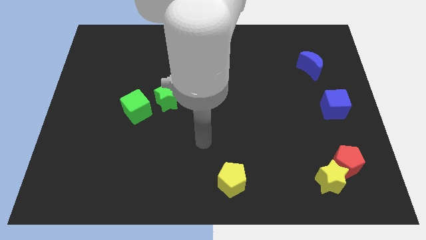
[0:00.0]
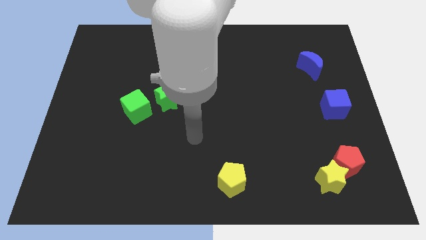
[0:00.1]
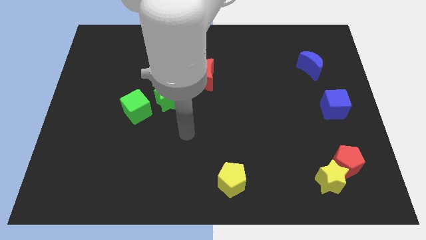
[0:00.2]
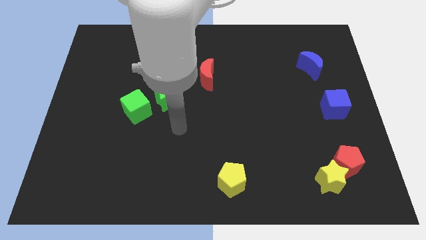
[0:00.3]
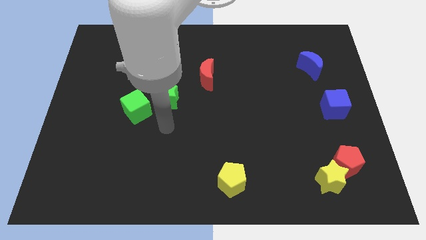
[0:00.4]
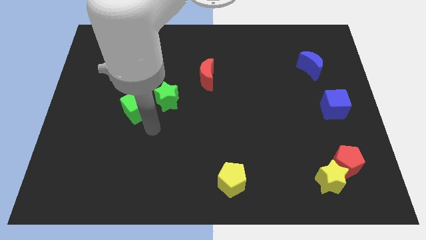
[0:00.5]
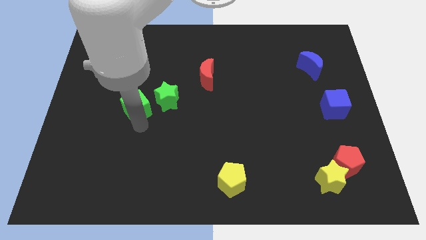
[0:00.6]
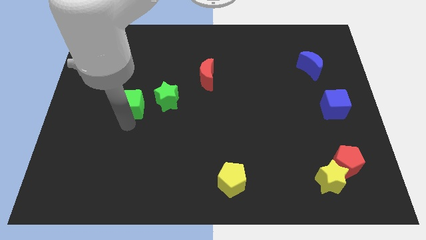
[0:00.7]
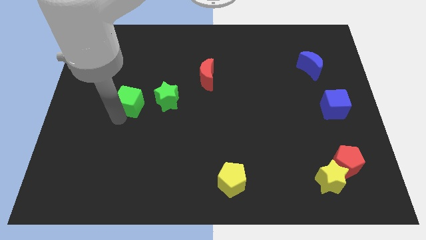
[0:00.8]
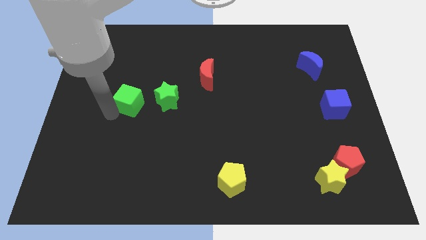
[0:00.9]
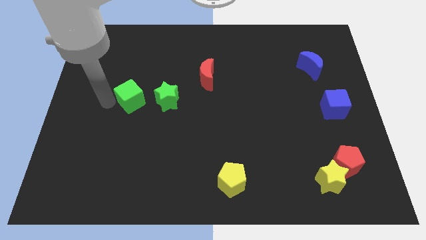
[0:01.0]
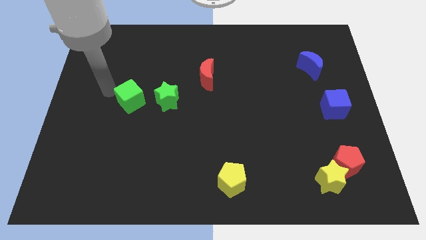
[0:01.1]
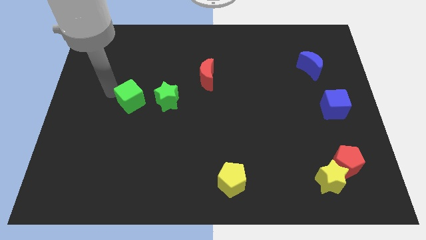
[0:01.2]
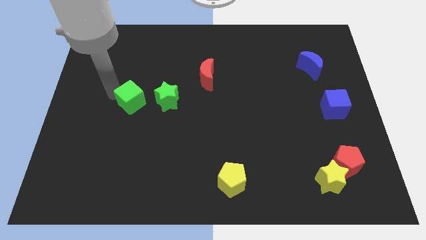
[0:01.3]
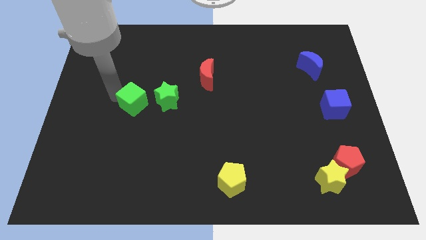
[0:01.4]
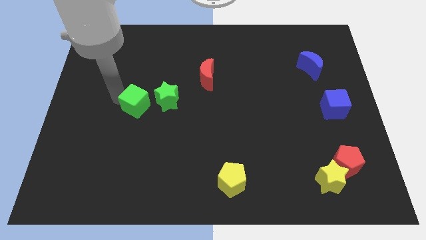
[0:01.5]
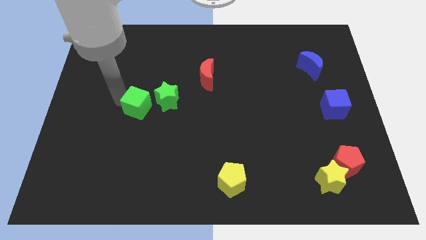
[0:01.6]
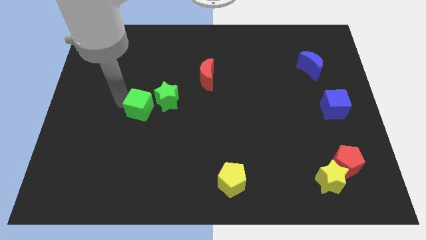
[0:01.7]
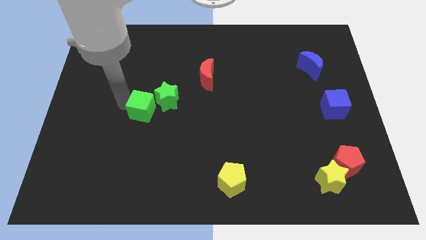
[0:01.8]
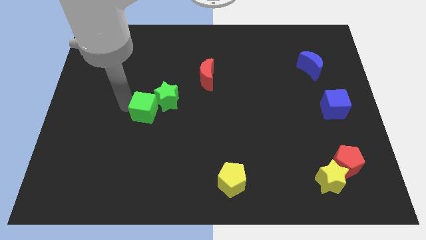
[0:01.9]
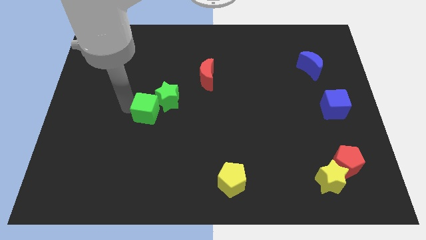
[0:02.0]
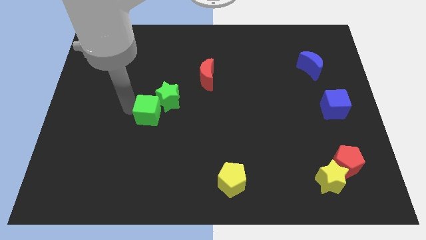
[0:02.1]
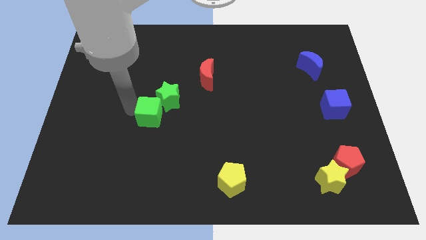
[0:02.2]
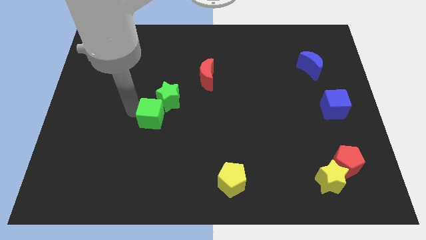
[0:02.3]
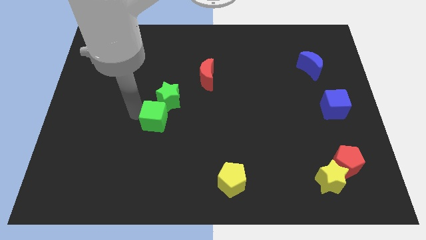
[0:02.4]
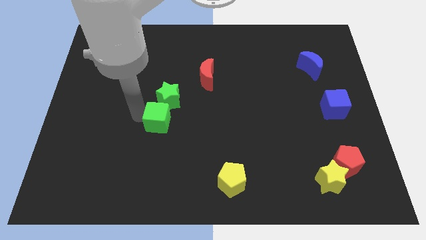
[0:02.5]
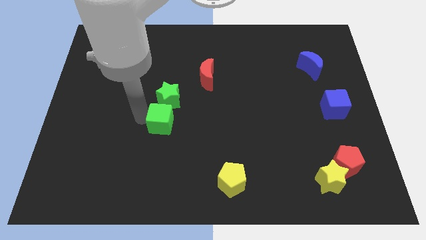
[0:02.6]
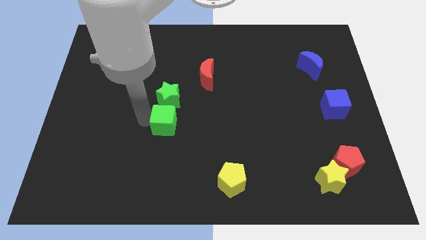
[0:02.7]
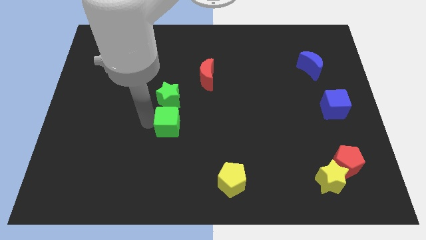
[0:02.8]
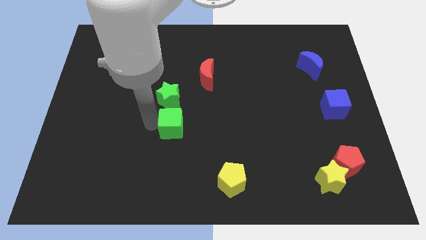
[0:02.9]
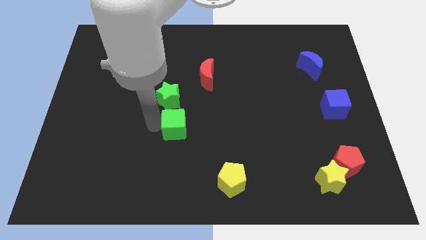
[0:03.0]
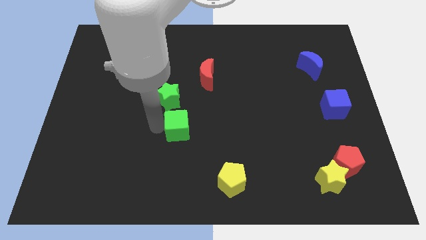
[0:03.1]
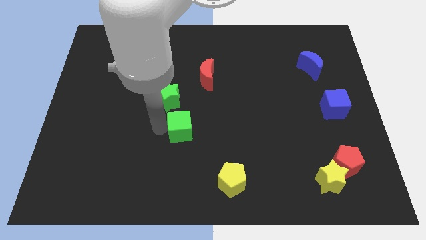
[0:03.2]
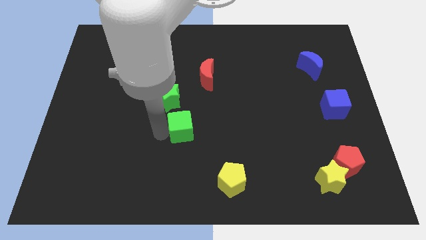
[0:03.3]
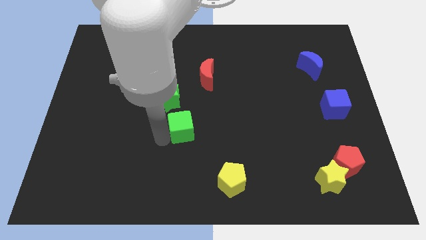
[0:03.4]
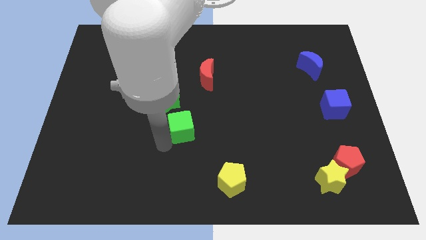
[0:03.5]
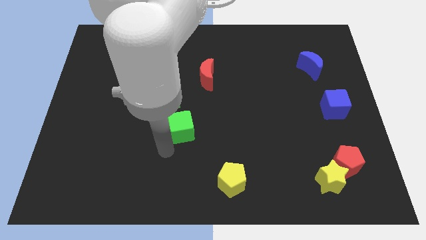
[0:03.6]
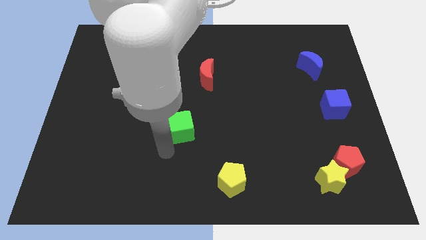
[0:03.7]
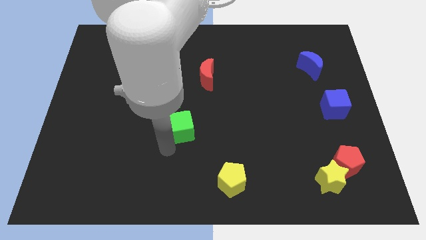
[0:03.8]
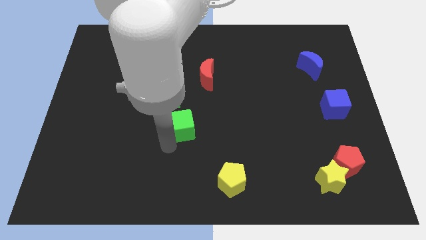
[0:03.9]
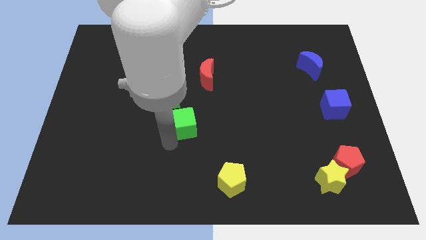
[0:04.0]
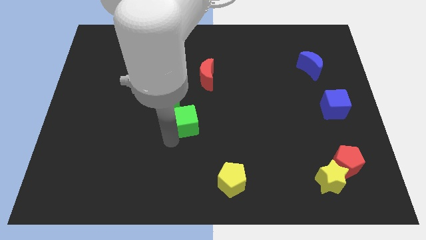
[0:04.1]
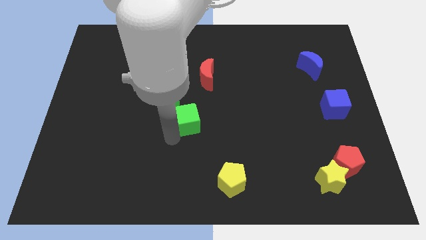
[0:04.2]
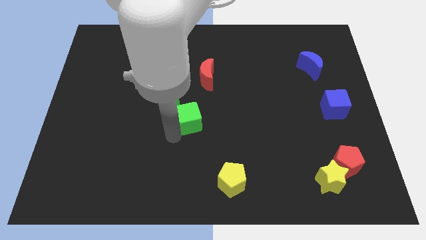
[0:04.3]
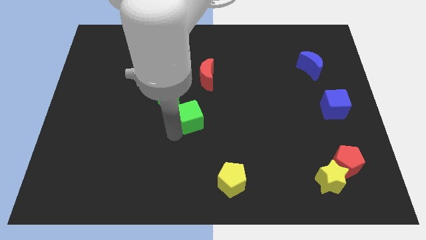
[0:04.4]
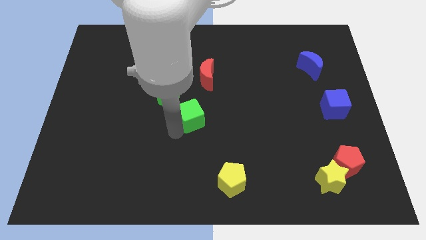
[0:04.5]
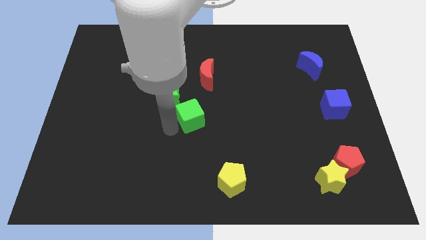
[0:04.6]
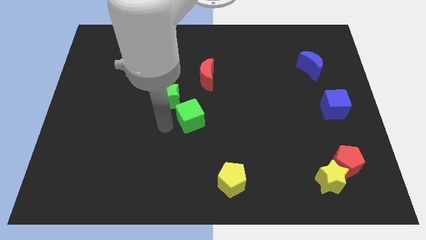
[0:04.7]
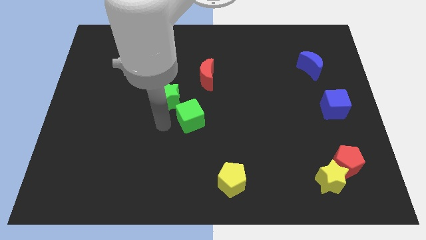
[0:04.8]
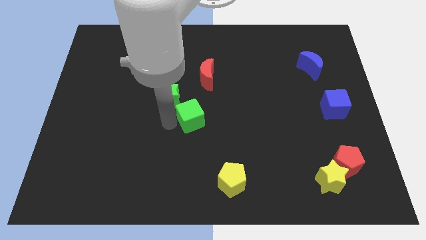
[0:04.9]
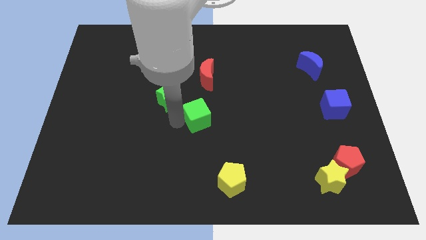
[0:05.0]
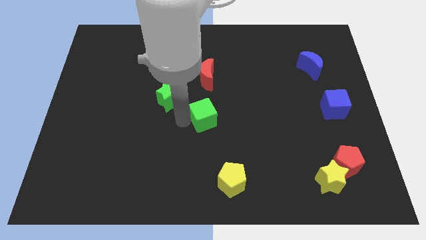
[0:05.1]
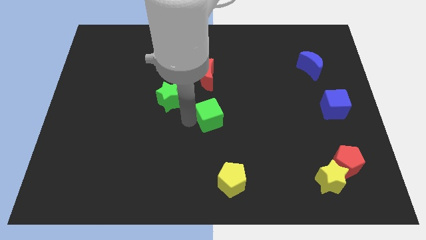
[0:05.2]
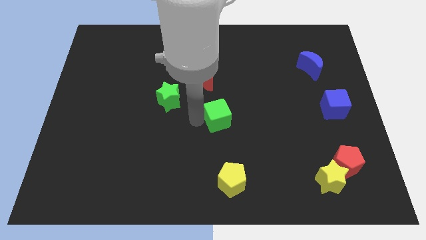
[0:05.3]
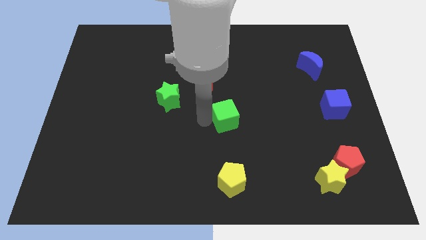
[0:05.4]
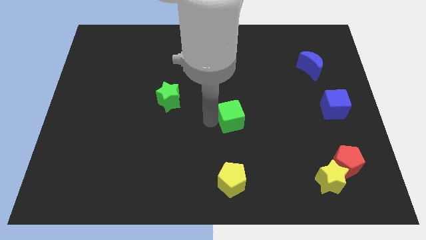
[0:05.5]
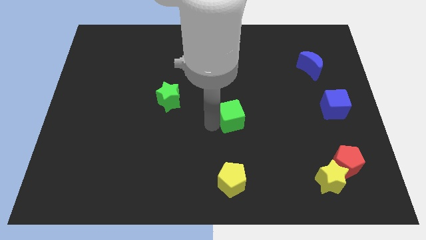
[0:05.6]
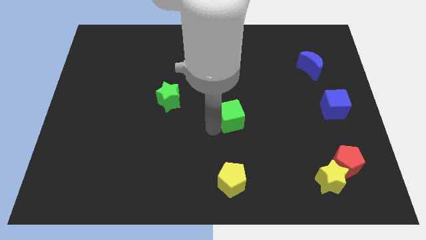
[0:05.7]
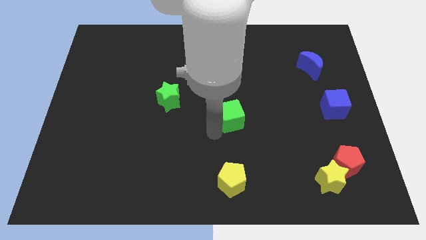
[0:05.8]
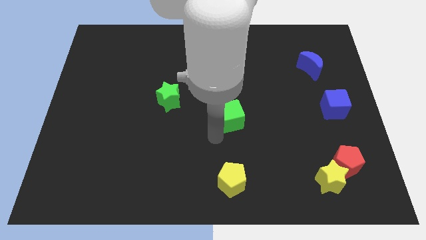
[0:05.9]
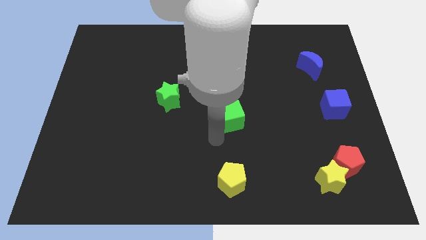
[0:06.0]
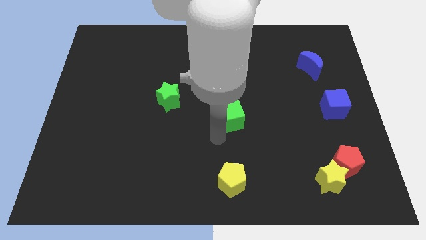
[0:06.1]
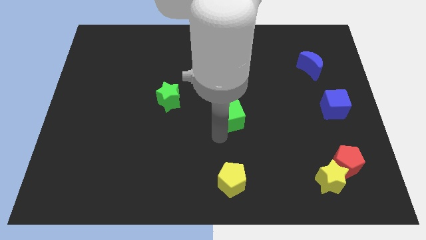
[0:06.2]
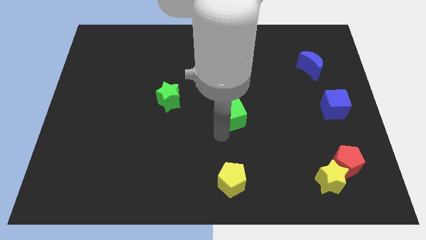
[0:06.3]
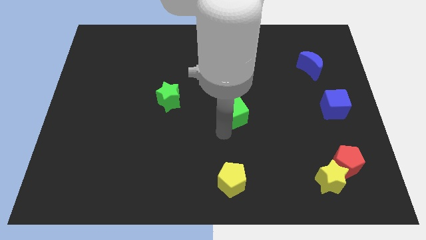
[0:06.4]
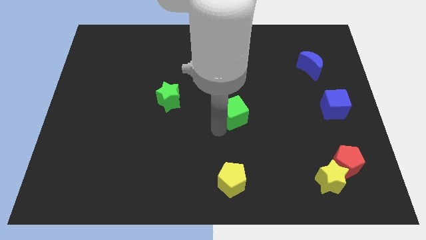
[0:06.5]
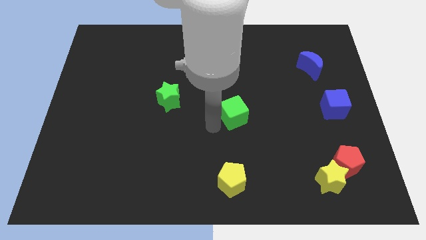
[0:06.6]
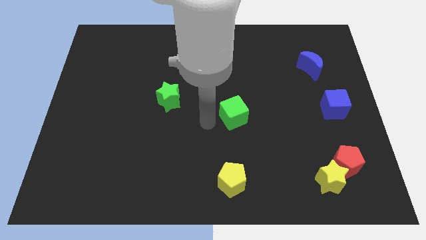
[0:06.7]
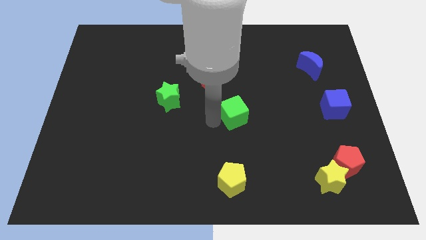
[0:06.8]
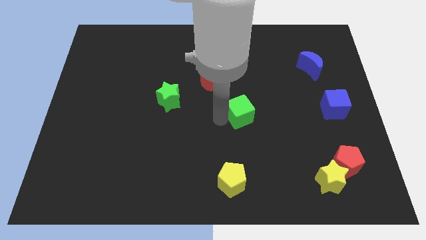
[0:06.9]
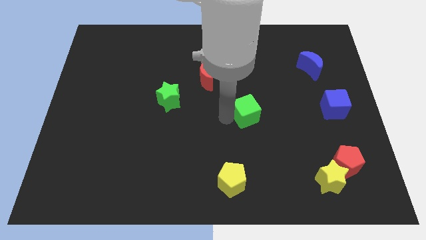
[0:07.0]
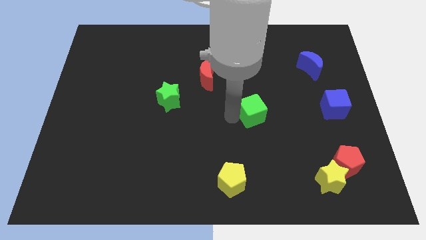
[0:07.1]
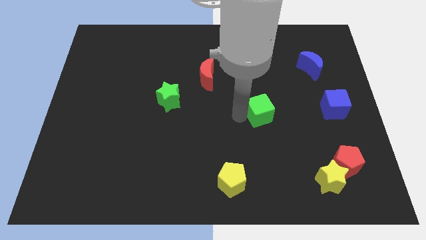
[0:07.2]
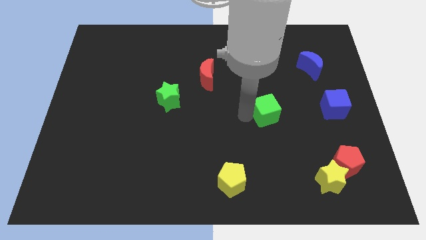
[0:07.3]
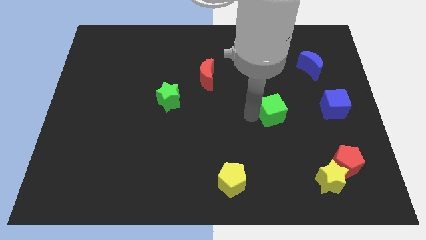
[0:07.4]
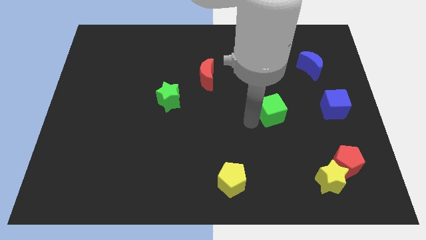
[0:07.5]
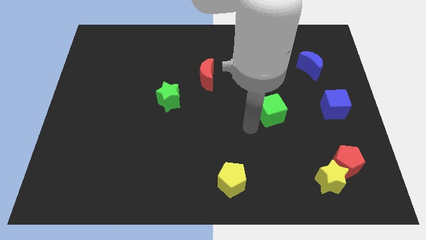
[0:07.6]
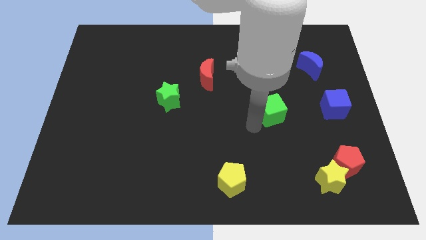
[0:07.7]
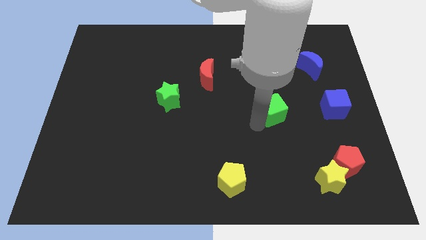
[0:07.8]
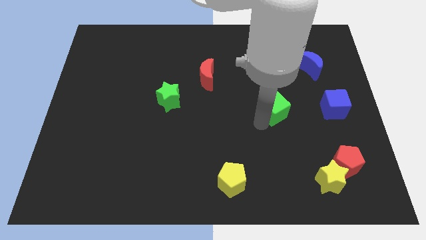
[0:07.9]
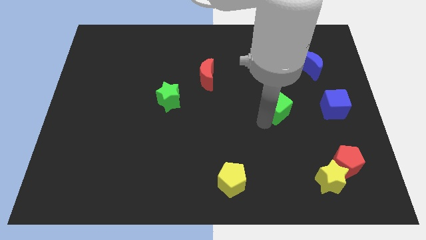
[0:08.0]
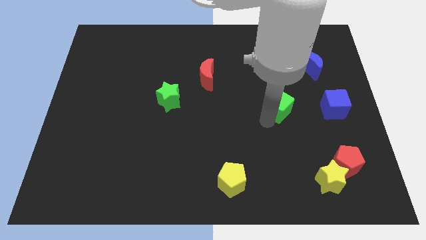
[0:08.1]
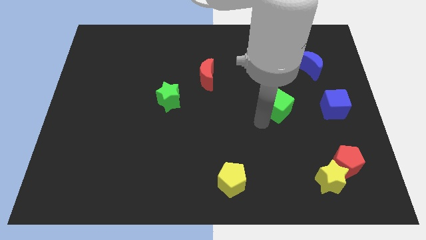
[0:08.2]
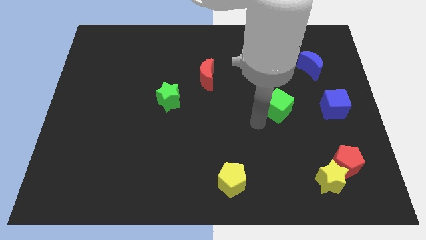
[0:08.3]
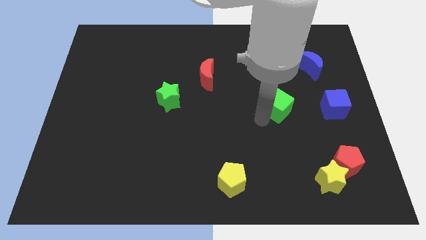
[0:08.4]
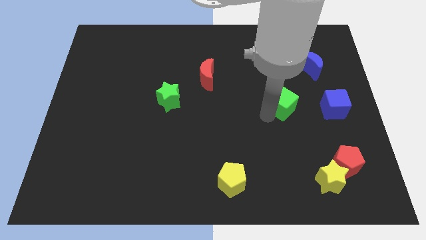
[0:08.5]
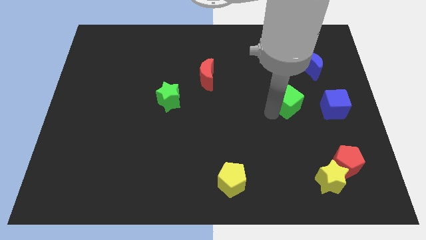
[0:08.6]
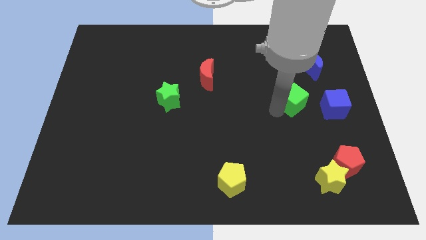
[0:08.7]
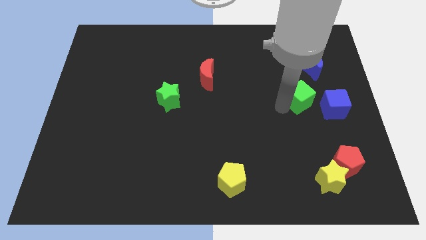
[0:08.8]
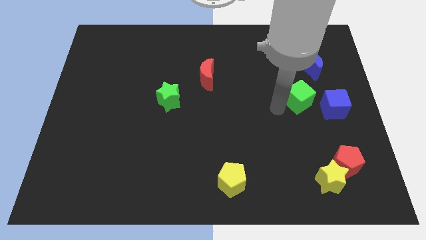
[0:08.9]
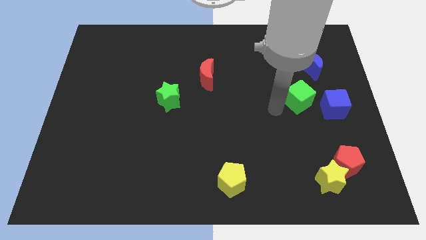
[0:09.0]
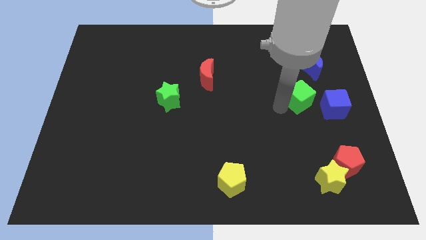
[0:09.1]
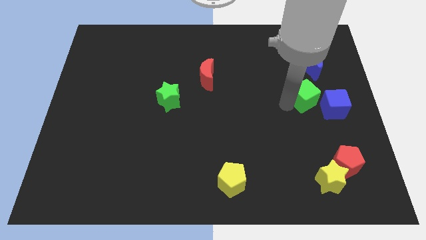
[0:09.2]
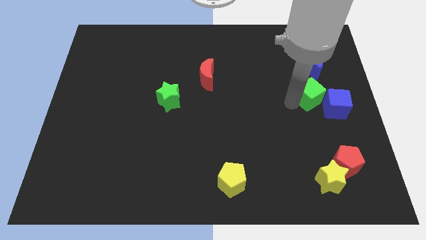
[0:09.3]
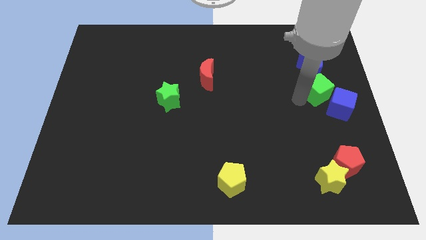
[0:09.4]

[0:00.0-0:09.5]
put the green cube to the center right
